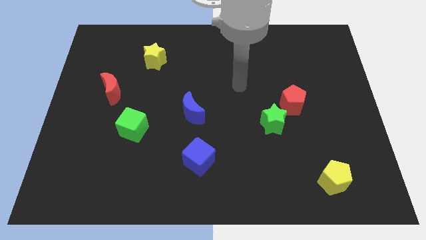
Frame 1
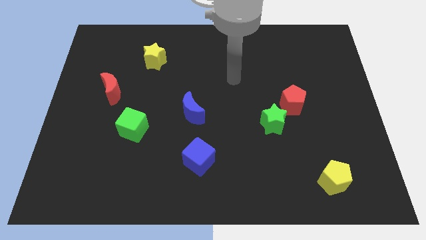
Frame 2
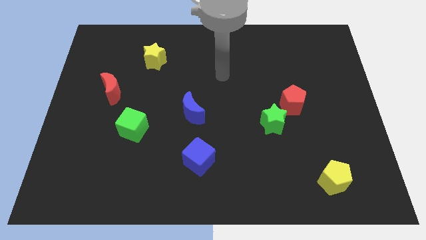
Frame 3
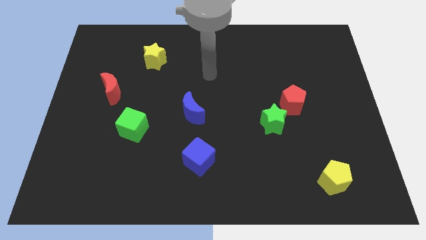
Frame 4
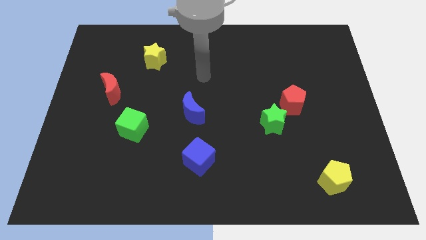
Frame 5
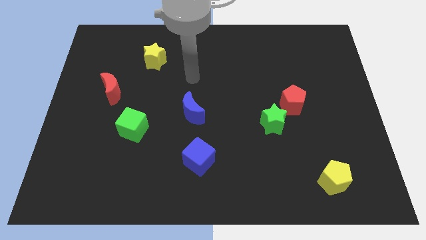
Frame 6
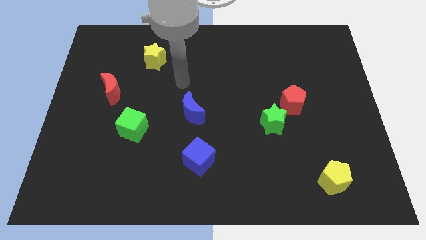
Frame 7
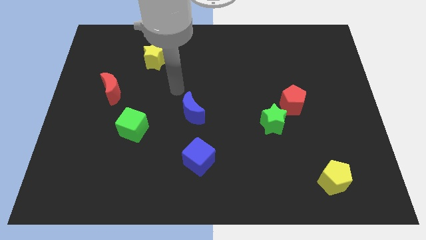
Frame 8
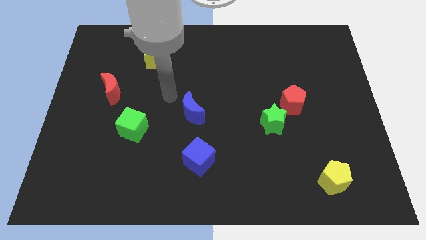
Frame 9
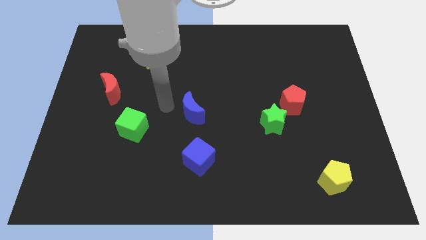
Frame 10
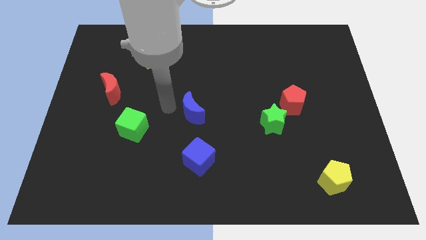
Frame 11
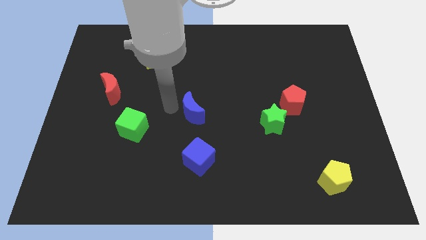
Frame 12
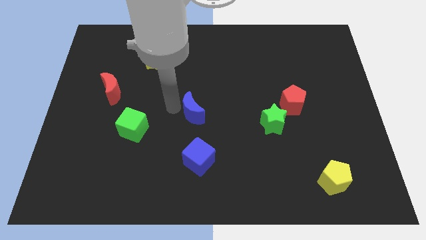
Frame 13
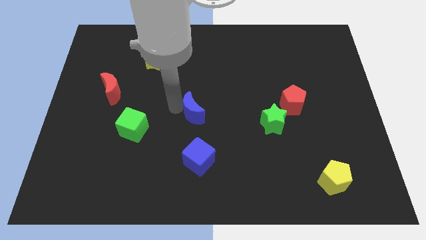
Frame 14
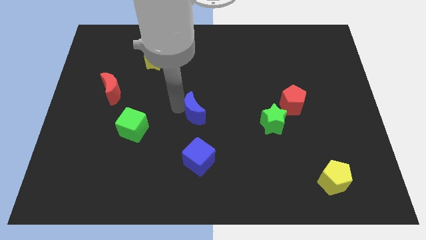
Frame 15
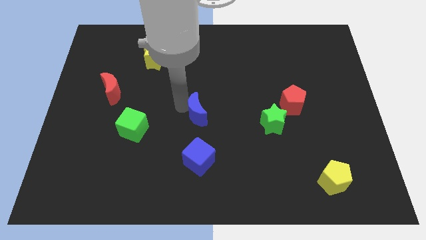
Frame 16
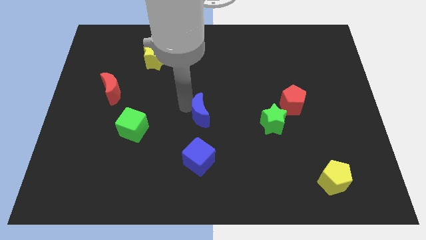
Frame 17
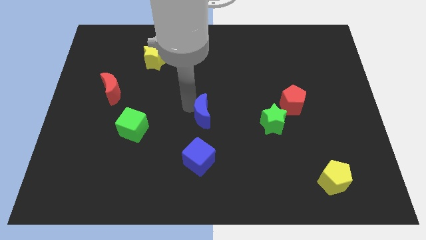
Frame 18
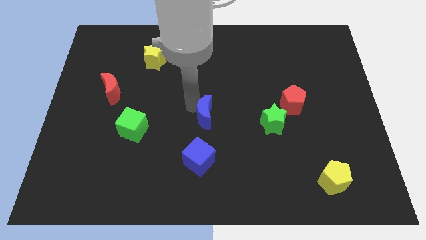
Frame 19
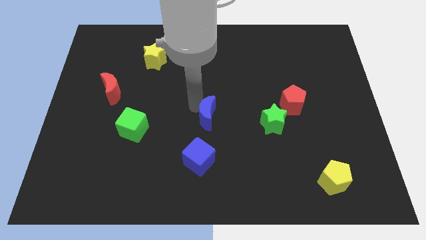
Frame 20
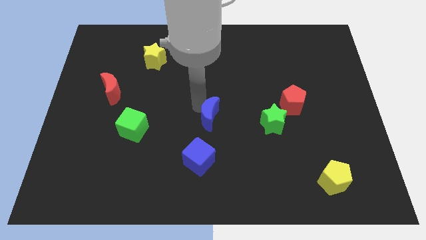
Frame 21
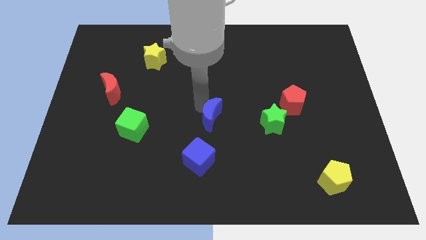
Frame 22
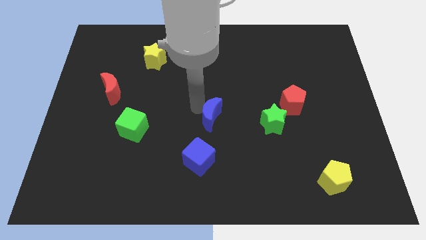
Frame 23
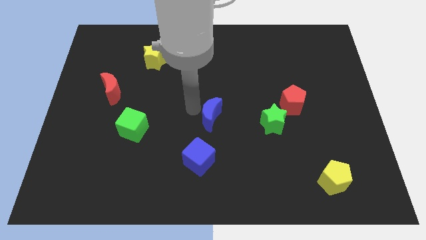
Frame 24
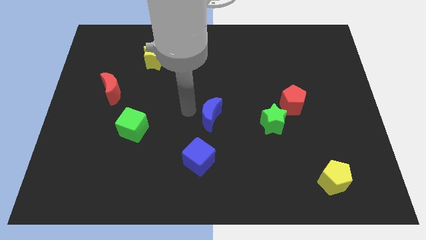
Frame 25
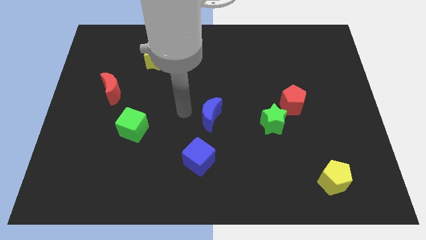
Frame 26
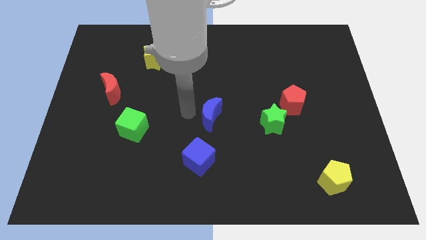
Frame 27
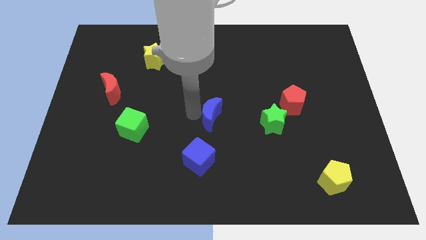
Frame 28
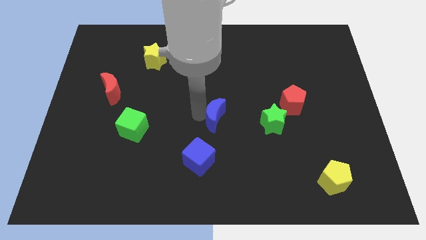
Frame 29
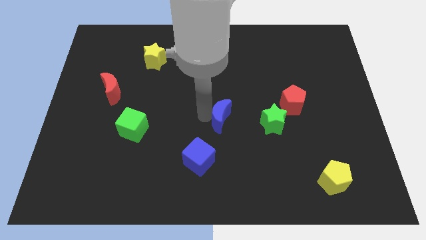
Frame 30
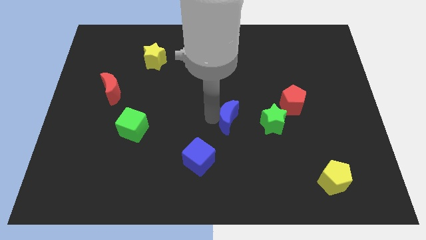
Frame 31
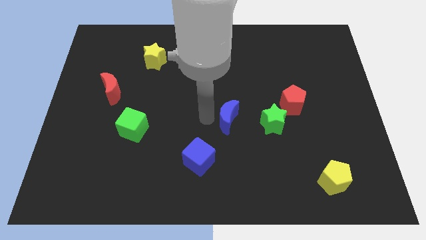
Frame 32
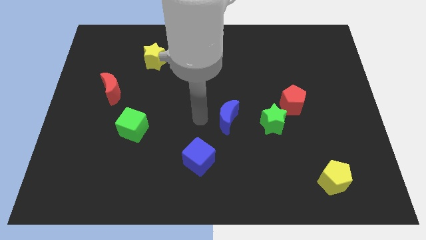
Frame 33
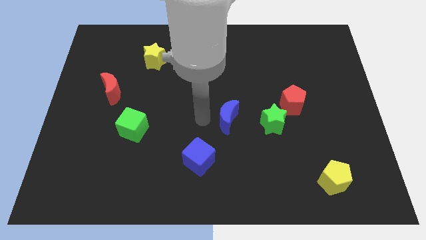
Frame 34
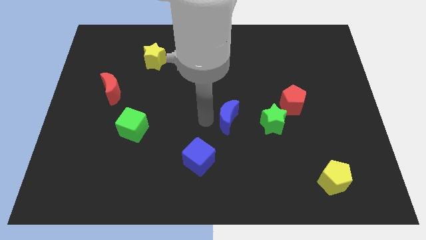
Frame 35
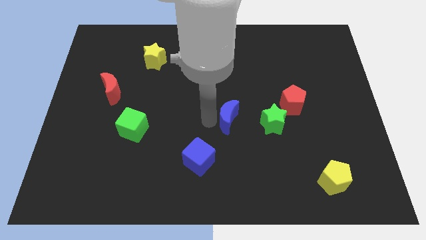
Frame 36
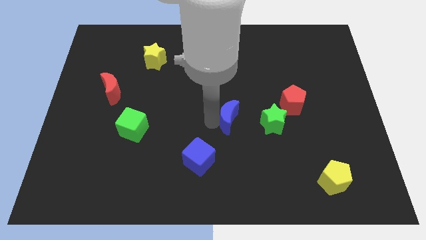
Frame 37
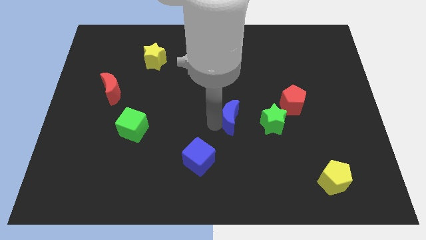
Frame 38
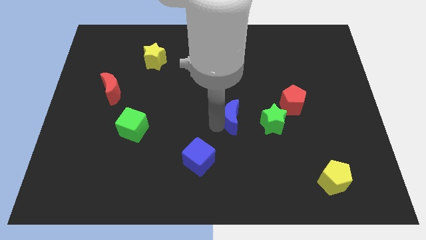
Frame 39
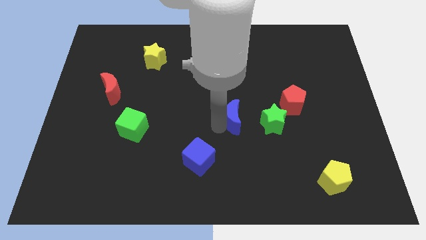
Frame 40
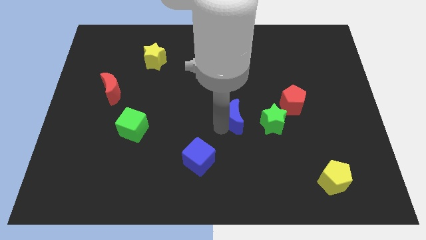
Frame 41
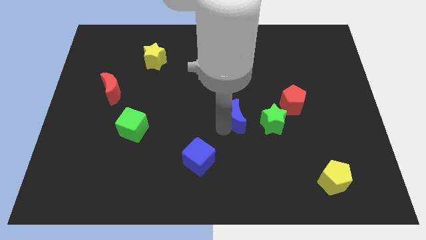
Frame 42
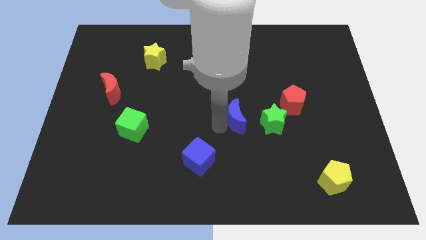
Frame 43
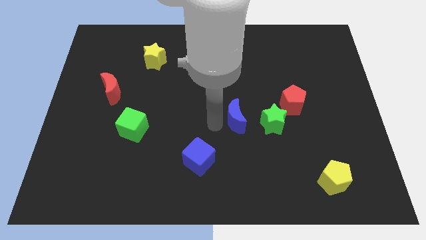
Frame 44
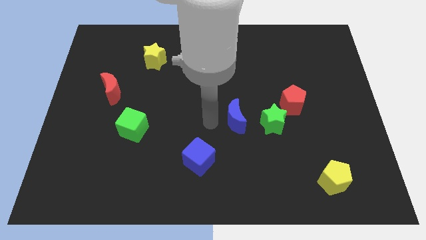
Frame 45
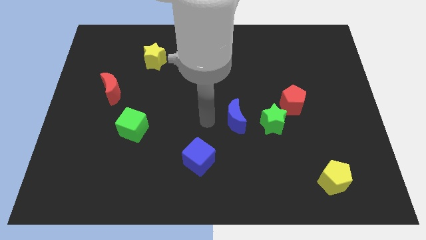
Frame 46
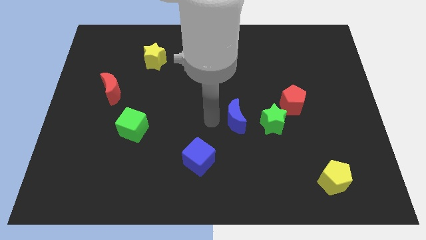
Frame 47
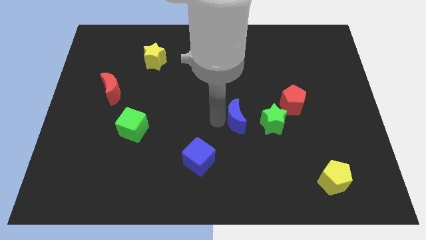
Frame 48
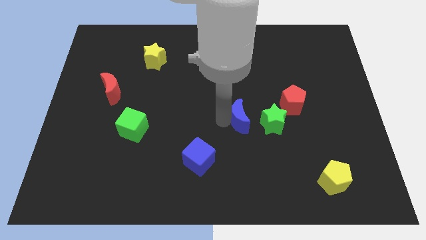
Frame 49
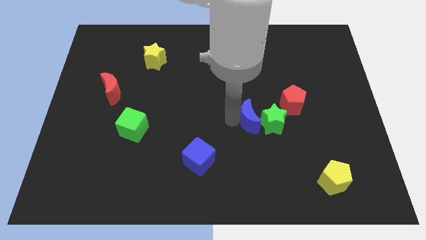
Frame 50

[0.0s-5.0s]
push the blue moon towards the green star

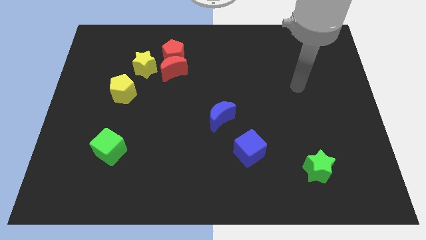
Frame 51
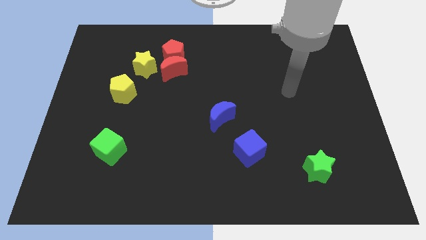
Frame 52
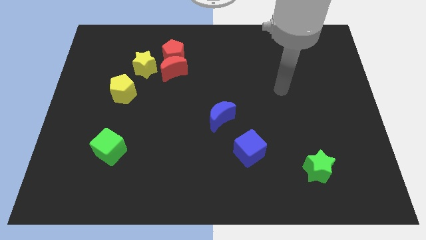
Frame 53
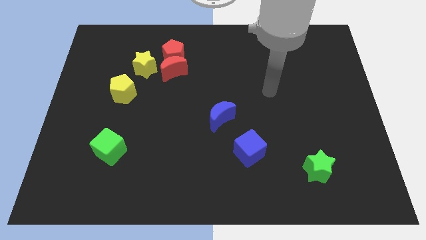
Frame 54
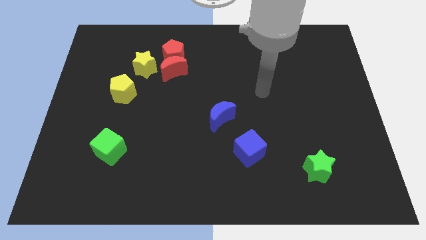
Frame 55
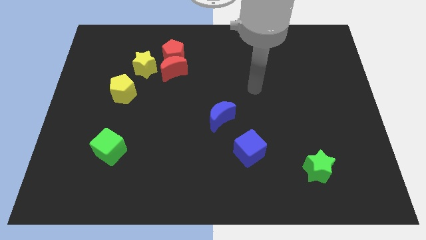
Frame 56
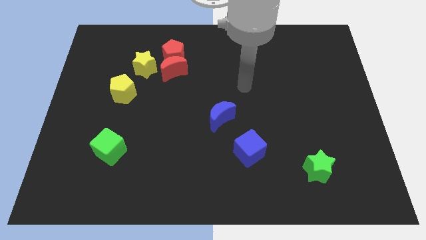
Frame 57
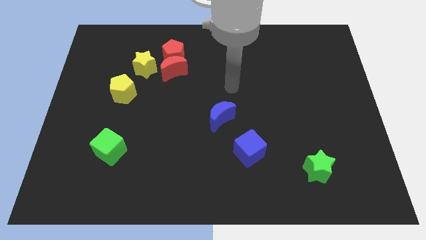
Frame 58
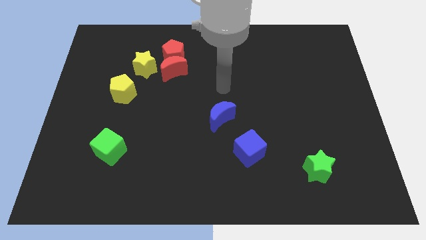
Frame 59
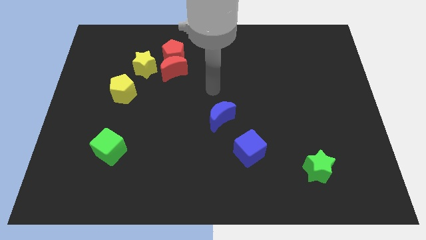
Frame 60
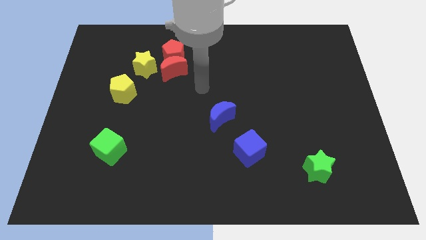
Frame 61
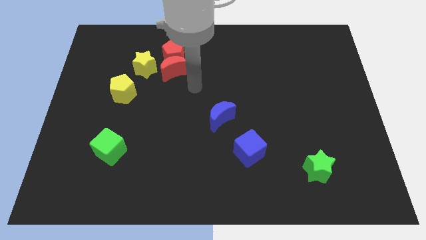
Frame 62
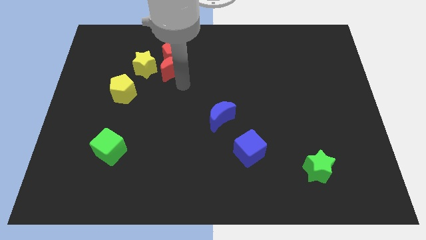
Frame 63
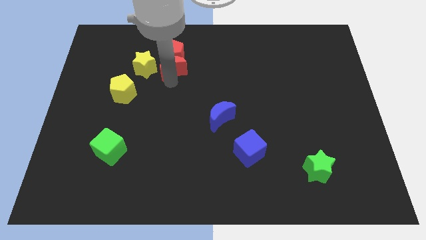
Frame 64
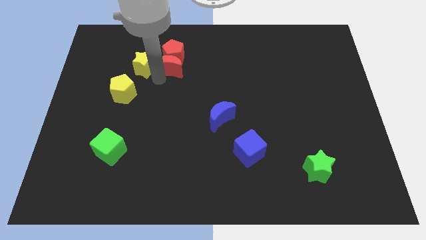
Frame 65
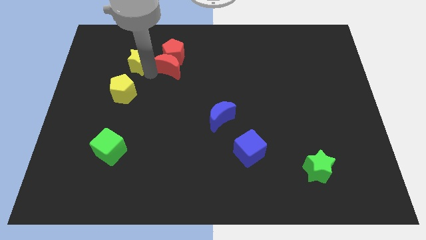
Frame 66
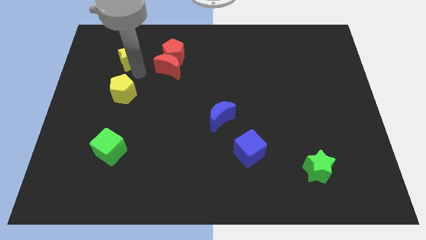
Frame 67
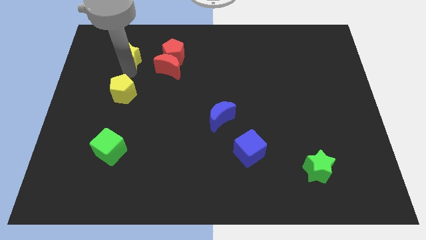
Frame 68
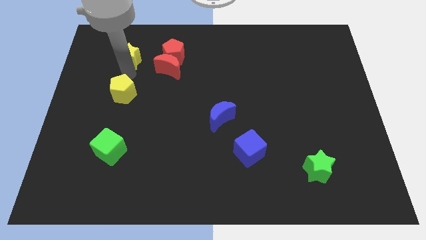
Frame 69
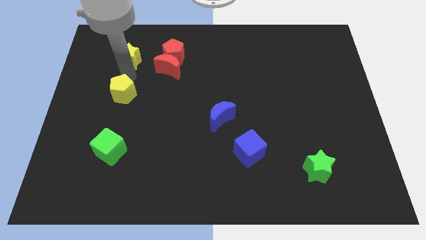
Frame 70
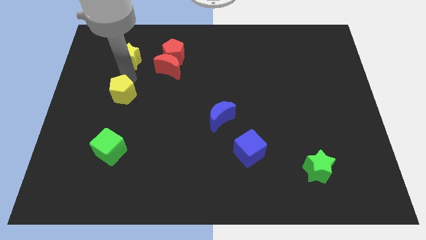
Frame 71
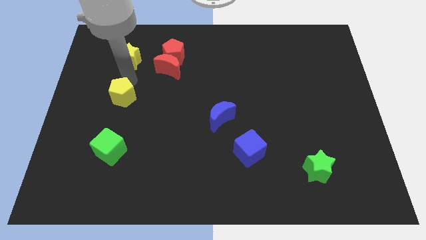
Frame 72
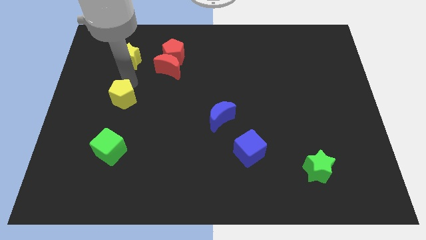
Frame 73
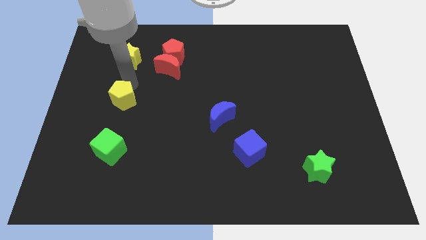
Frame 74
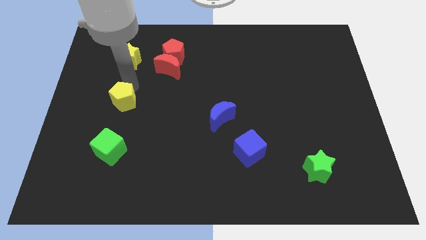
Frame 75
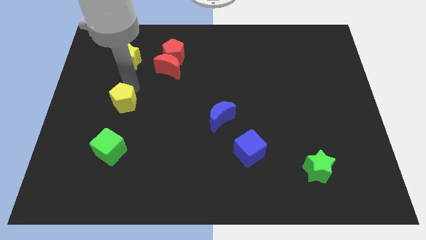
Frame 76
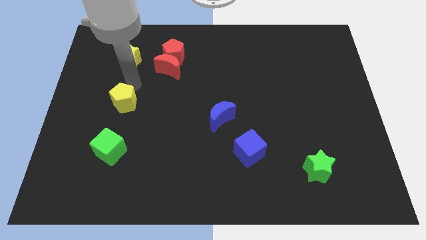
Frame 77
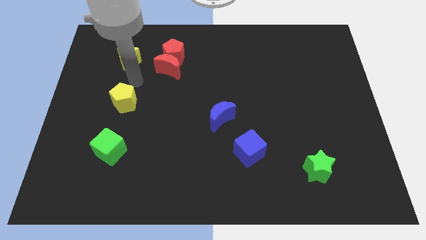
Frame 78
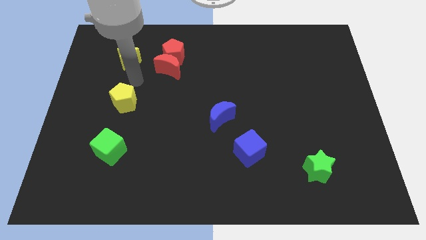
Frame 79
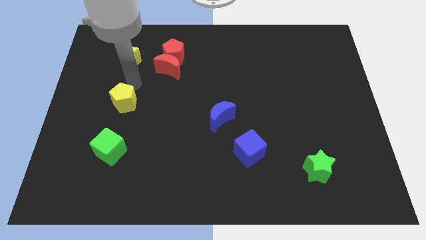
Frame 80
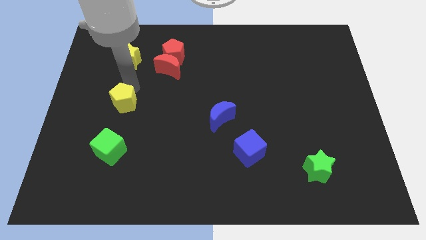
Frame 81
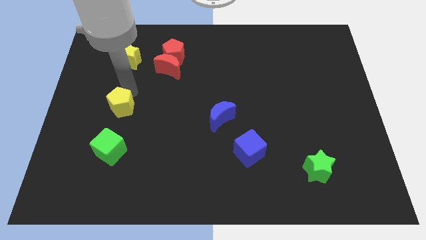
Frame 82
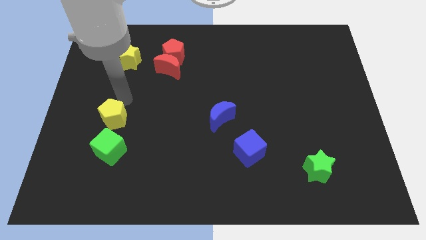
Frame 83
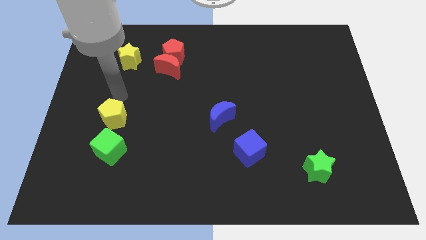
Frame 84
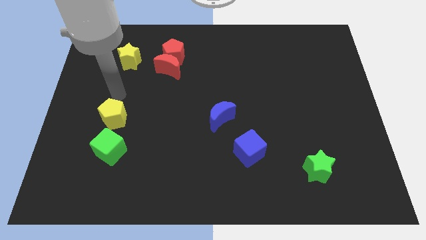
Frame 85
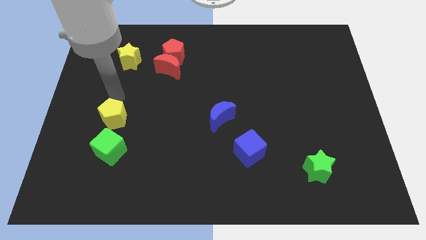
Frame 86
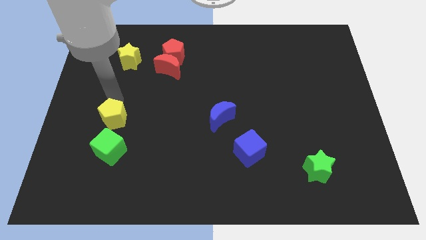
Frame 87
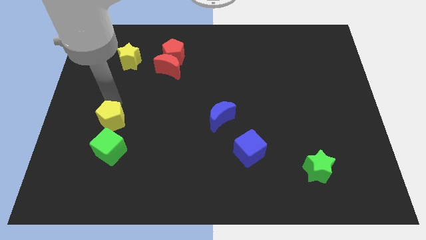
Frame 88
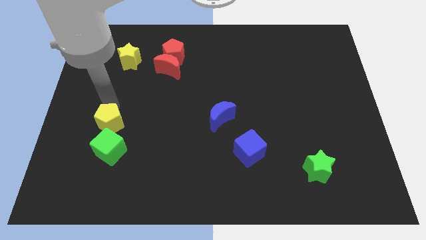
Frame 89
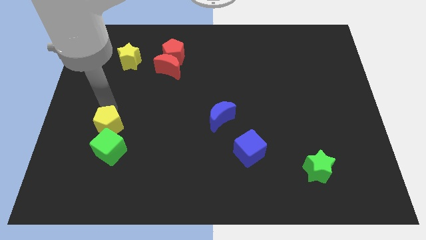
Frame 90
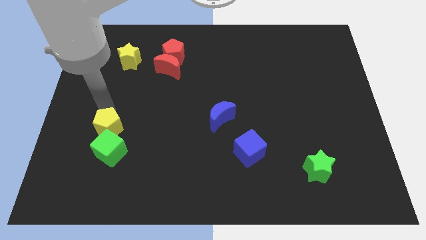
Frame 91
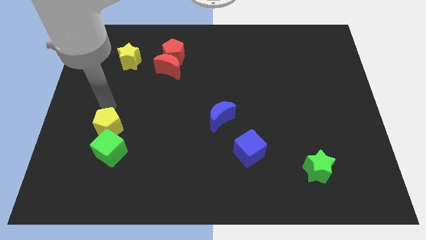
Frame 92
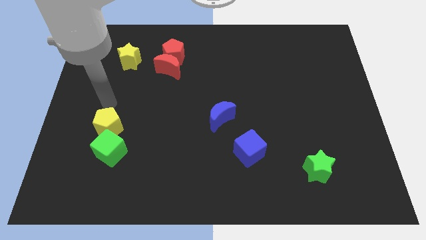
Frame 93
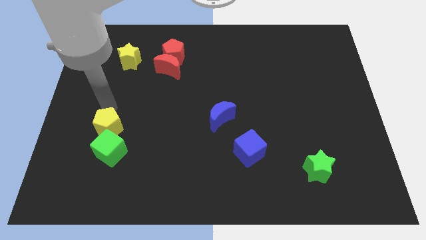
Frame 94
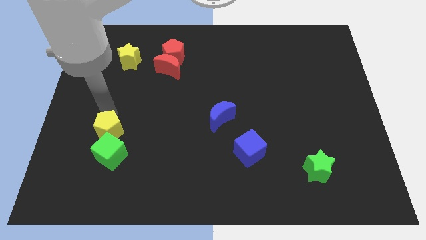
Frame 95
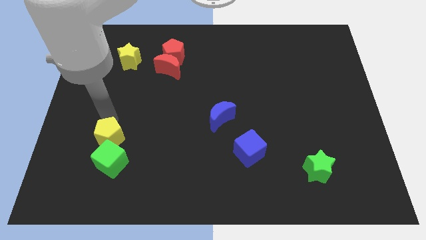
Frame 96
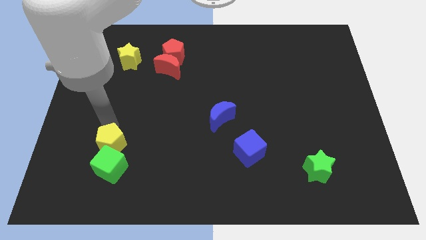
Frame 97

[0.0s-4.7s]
slide the yellow pentagon close to the green cube
